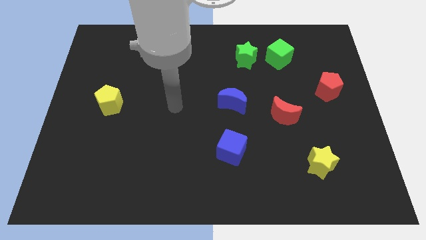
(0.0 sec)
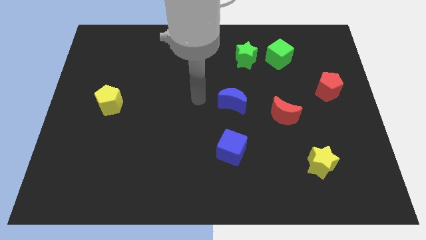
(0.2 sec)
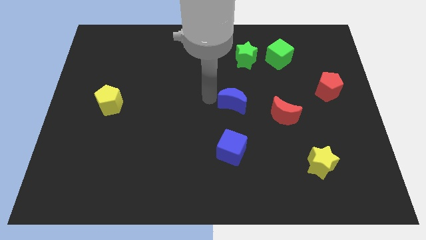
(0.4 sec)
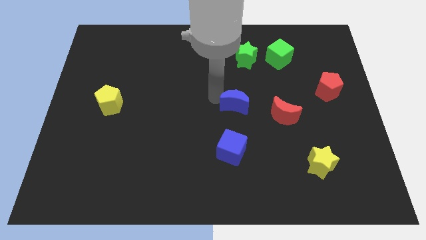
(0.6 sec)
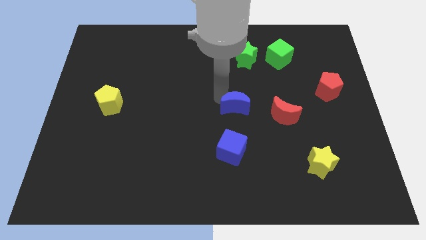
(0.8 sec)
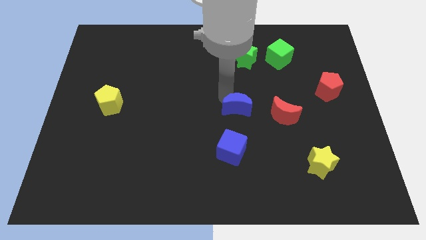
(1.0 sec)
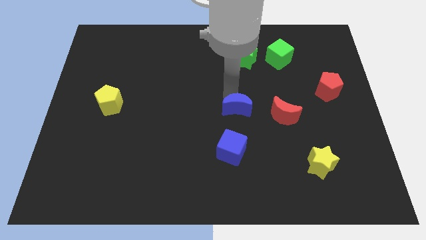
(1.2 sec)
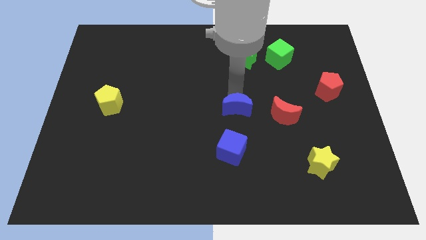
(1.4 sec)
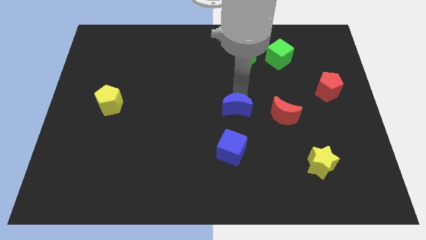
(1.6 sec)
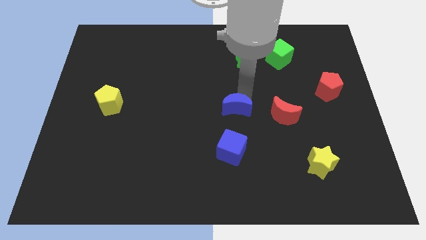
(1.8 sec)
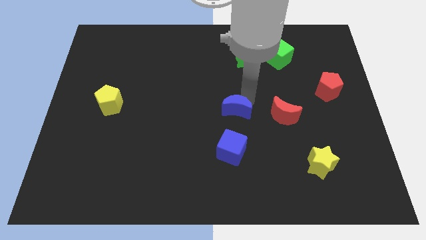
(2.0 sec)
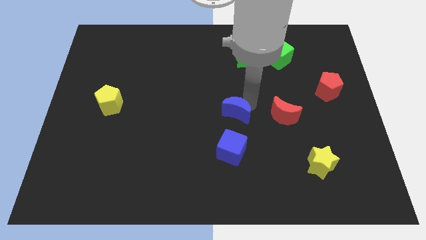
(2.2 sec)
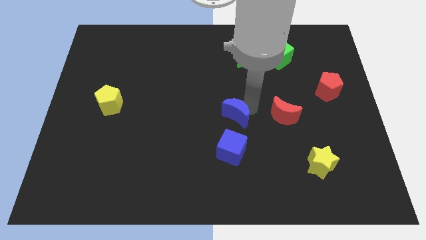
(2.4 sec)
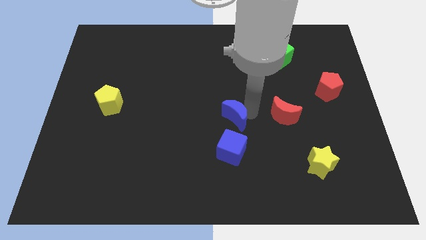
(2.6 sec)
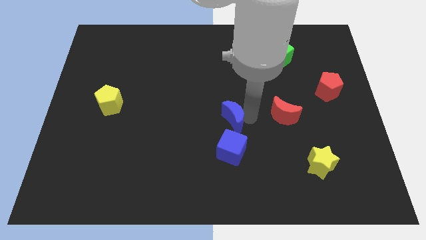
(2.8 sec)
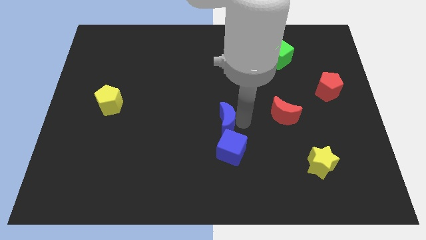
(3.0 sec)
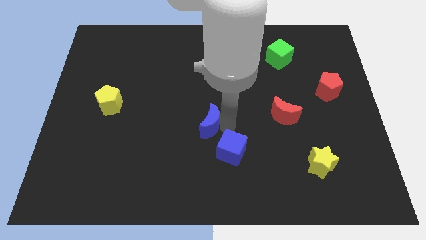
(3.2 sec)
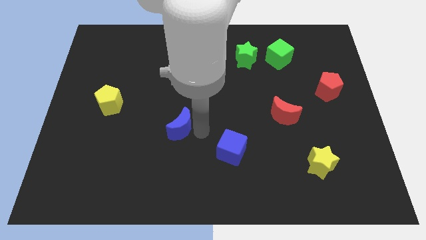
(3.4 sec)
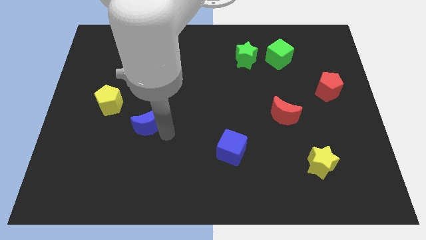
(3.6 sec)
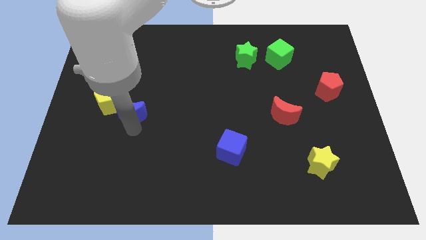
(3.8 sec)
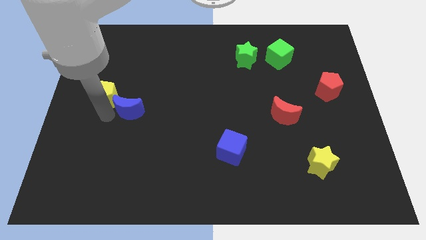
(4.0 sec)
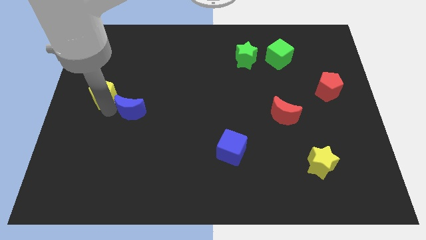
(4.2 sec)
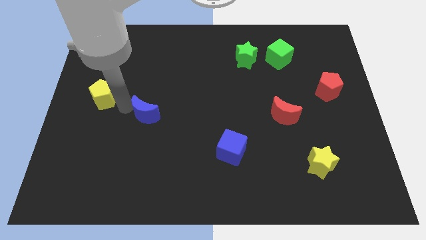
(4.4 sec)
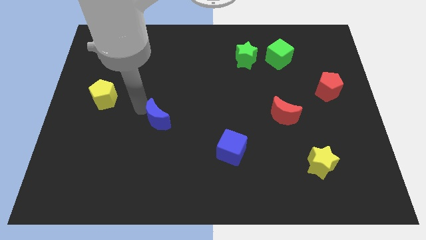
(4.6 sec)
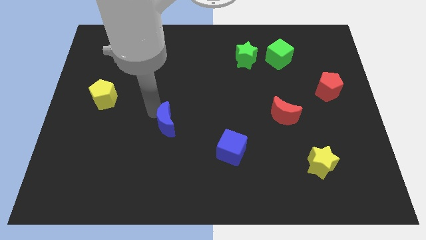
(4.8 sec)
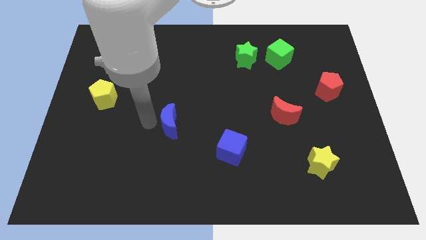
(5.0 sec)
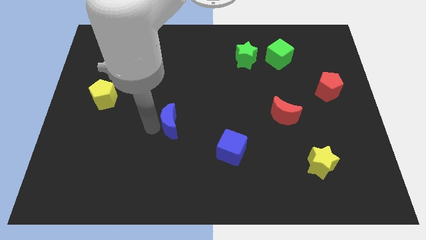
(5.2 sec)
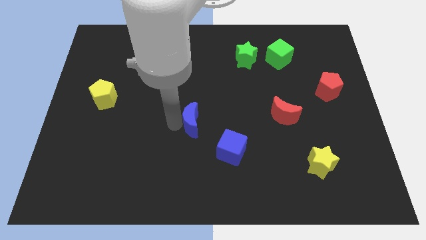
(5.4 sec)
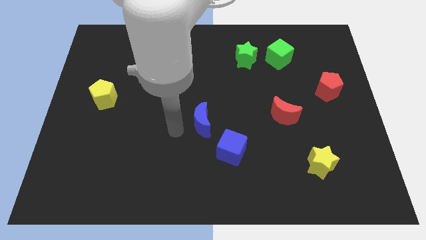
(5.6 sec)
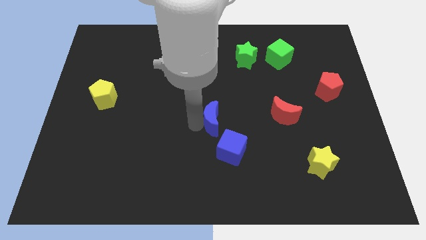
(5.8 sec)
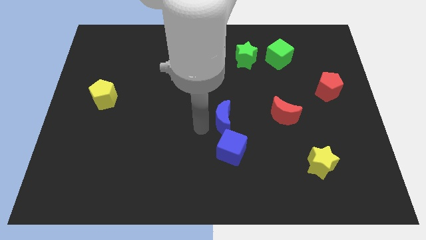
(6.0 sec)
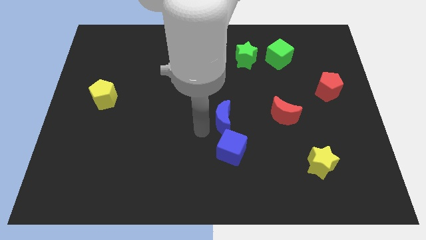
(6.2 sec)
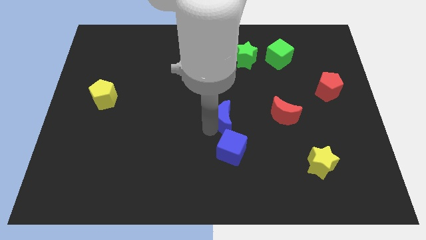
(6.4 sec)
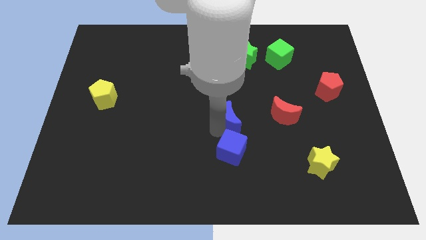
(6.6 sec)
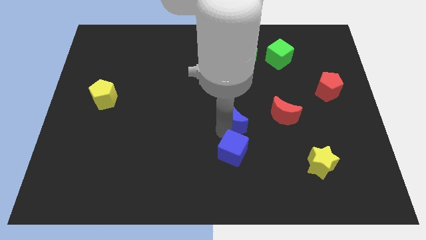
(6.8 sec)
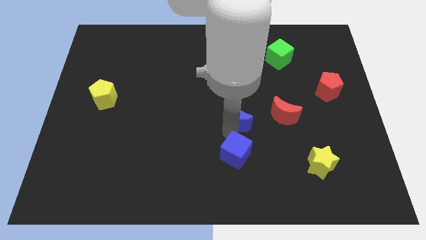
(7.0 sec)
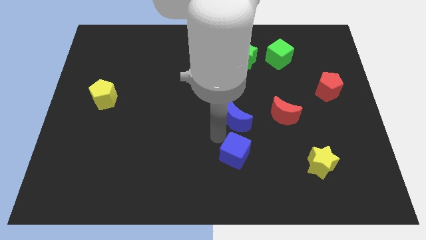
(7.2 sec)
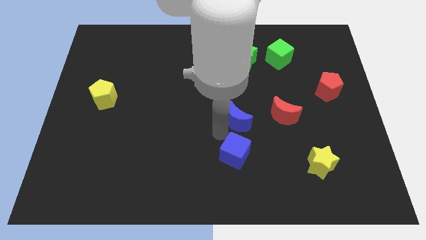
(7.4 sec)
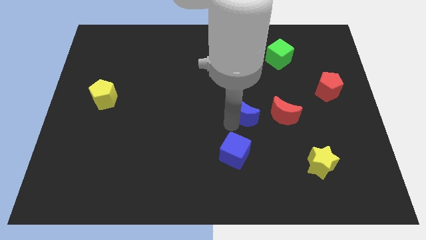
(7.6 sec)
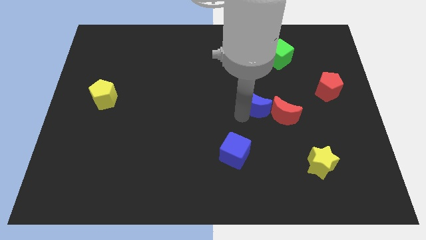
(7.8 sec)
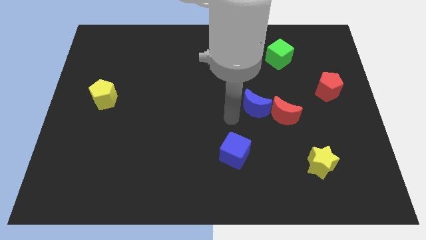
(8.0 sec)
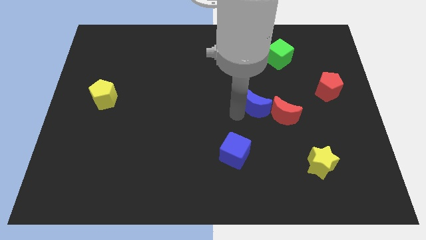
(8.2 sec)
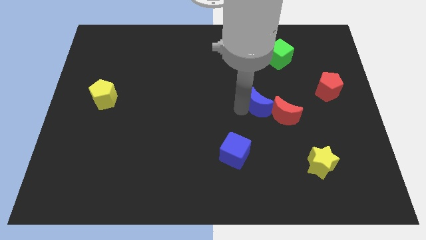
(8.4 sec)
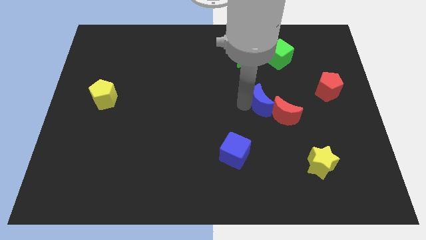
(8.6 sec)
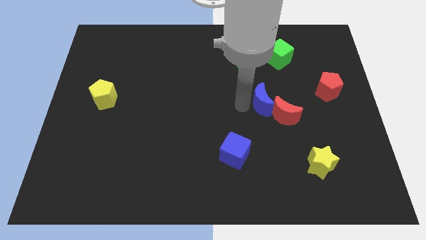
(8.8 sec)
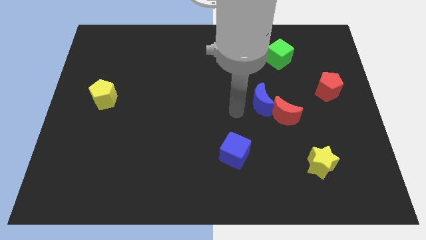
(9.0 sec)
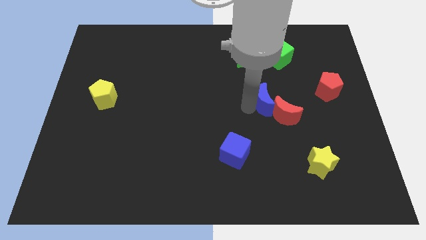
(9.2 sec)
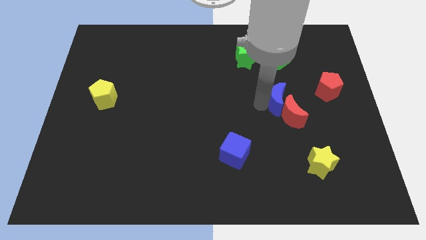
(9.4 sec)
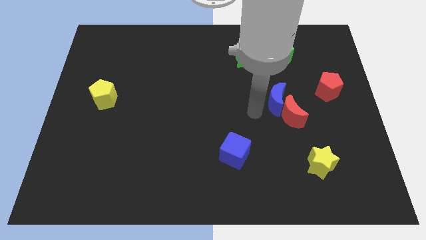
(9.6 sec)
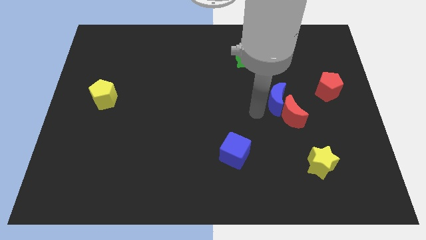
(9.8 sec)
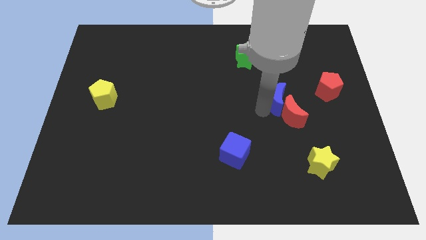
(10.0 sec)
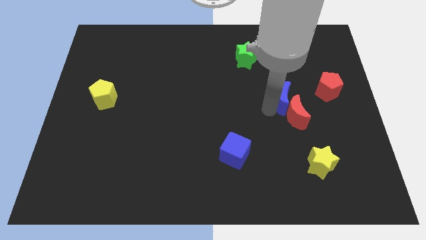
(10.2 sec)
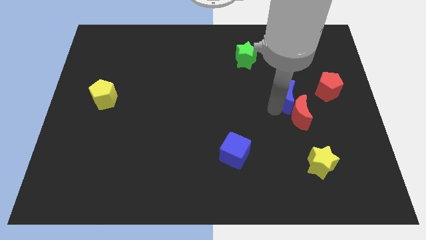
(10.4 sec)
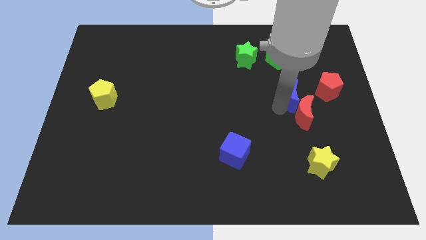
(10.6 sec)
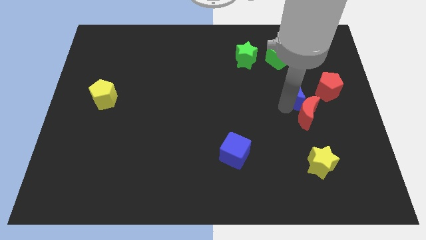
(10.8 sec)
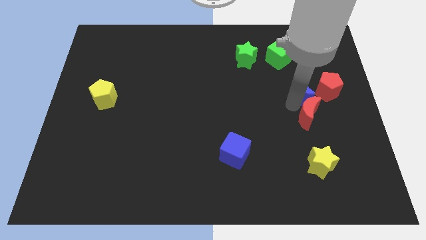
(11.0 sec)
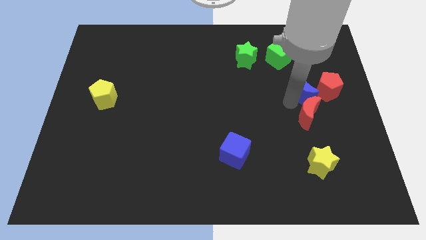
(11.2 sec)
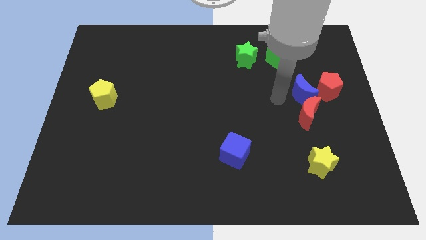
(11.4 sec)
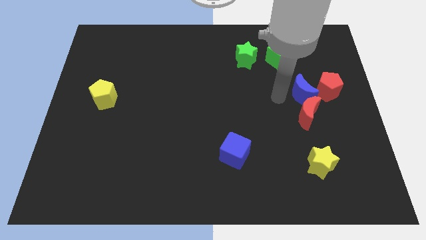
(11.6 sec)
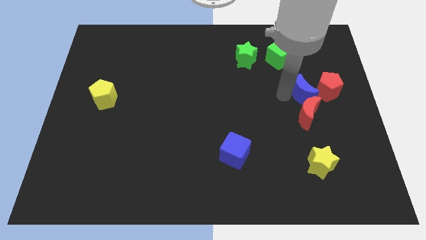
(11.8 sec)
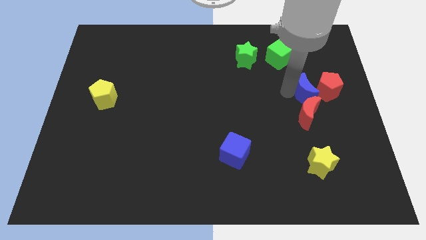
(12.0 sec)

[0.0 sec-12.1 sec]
put the blue moon next to the red pentagon

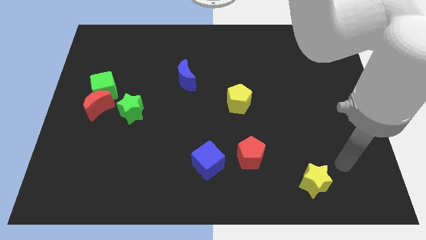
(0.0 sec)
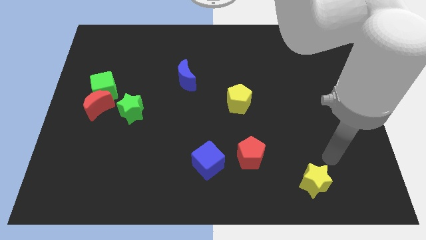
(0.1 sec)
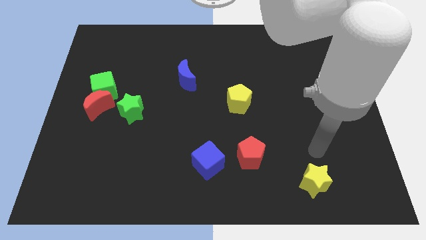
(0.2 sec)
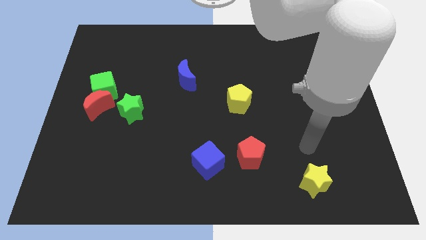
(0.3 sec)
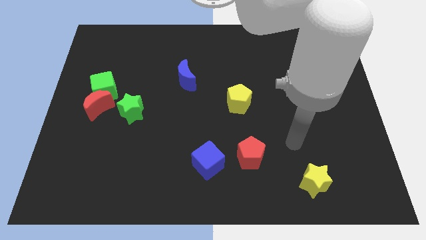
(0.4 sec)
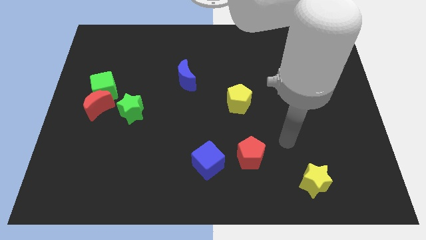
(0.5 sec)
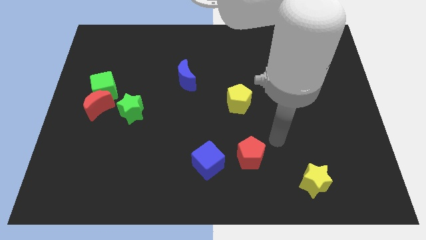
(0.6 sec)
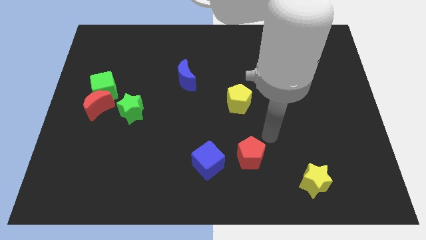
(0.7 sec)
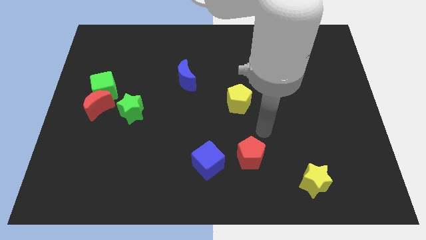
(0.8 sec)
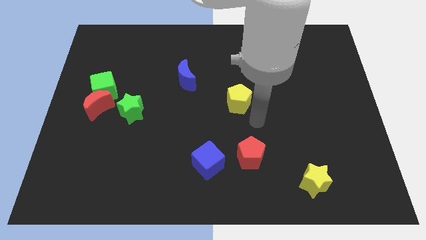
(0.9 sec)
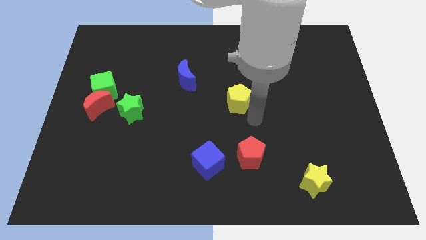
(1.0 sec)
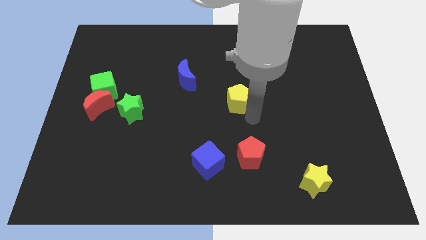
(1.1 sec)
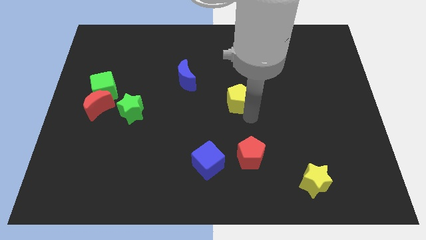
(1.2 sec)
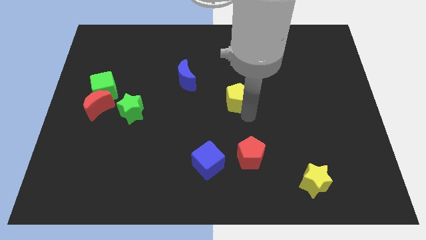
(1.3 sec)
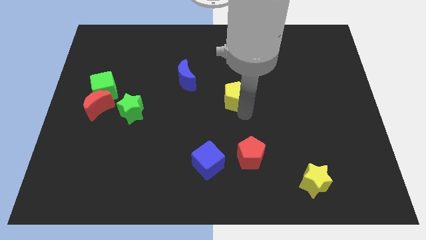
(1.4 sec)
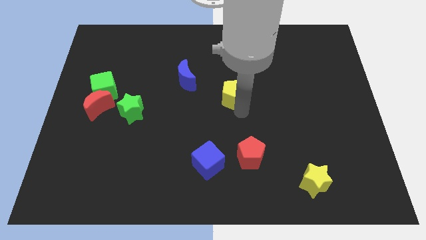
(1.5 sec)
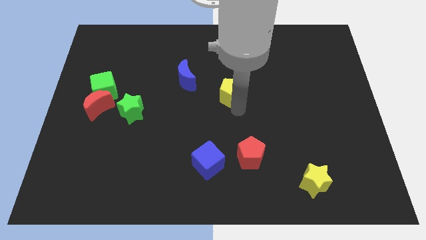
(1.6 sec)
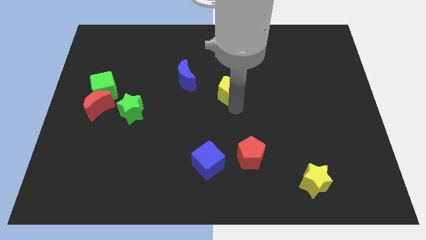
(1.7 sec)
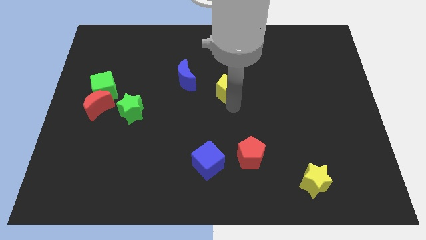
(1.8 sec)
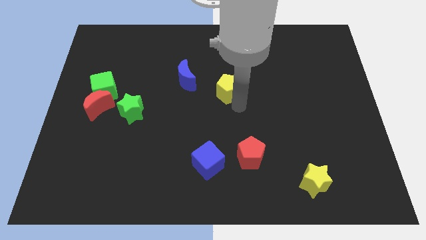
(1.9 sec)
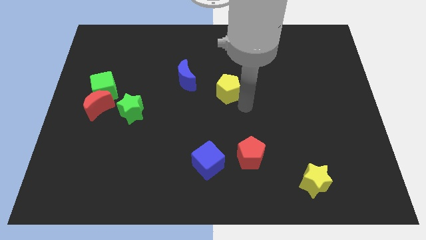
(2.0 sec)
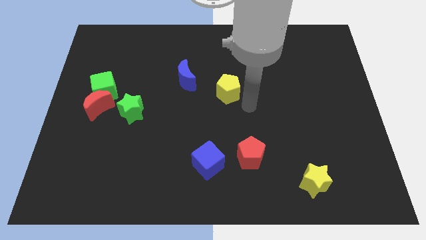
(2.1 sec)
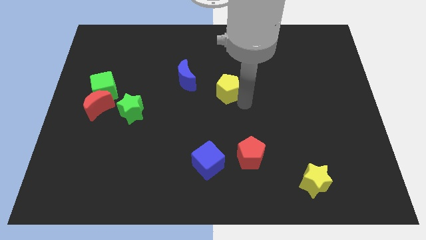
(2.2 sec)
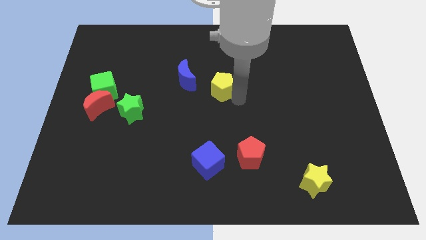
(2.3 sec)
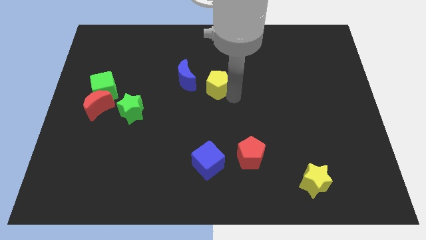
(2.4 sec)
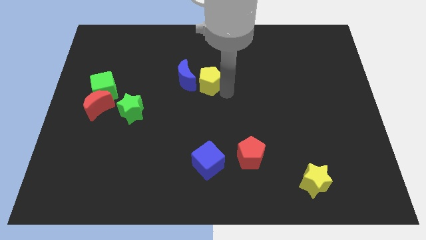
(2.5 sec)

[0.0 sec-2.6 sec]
slide the yellow pentagon to the blue moon
